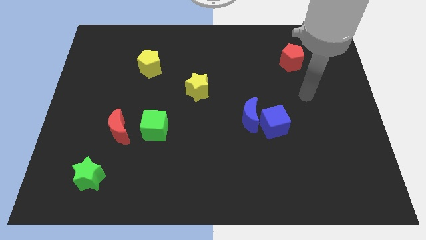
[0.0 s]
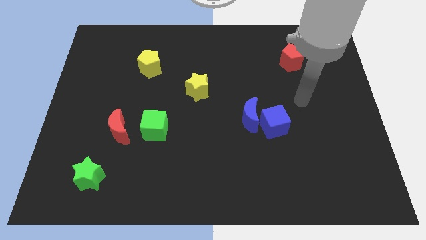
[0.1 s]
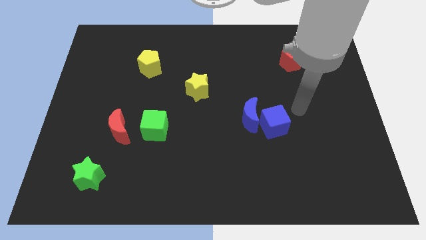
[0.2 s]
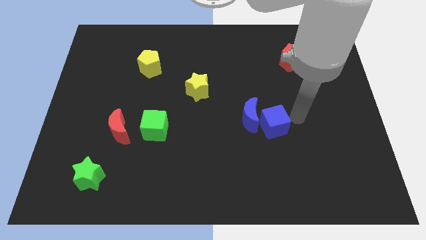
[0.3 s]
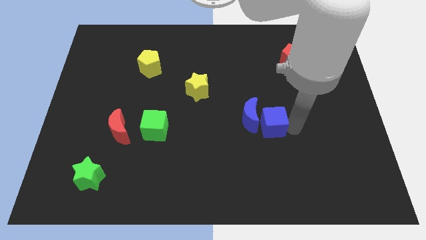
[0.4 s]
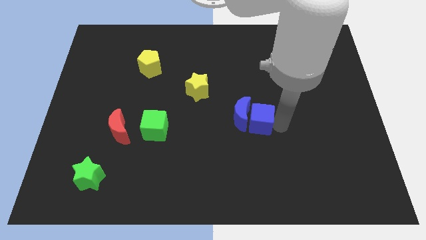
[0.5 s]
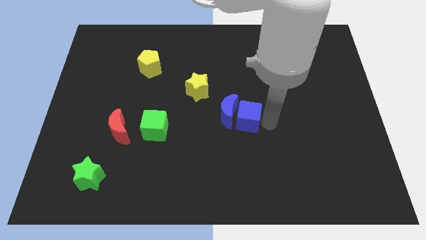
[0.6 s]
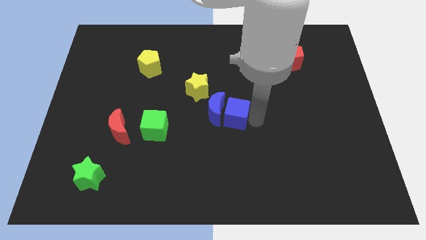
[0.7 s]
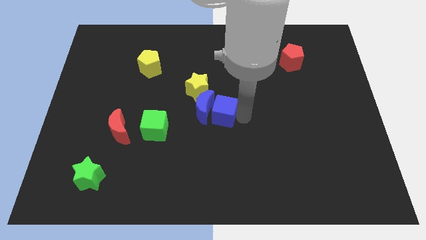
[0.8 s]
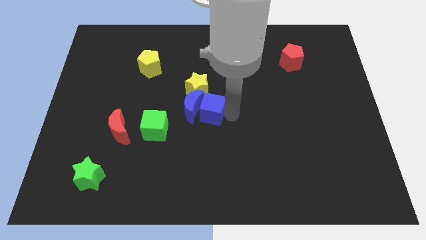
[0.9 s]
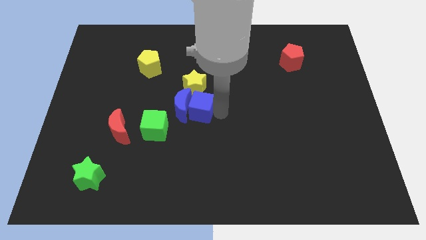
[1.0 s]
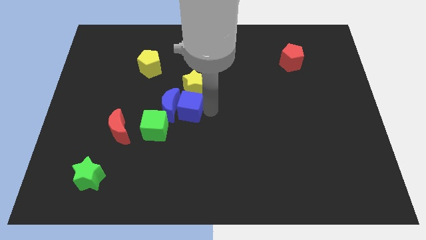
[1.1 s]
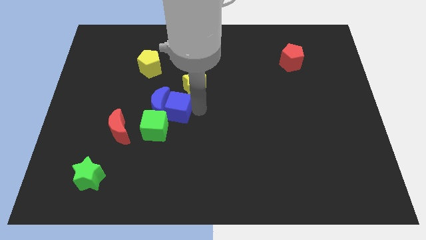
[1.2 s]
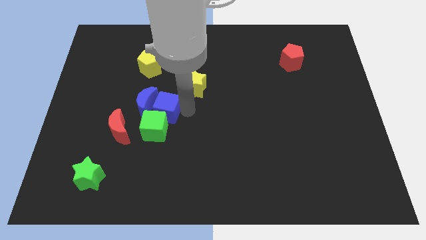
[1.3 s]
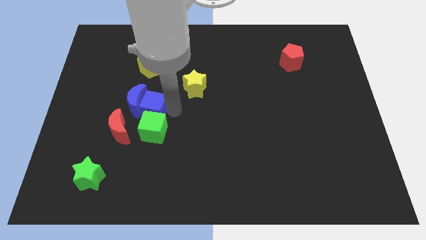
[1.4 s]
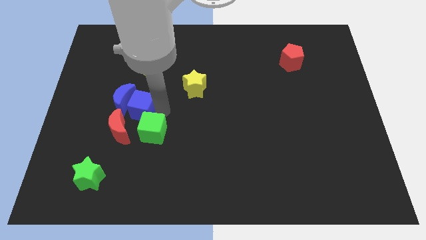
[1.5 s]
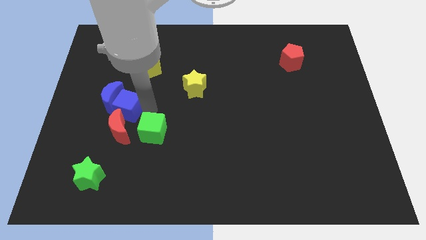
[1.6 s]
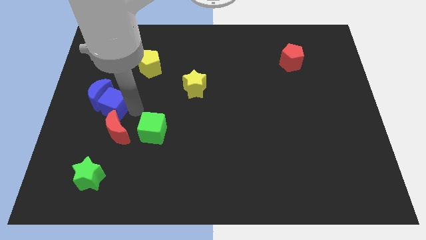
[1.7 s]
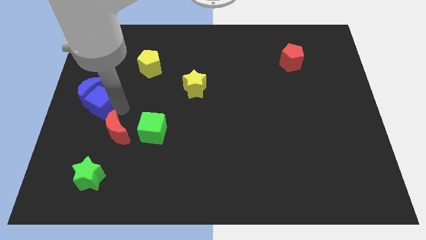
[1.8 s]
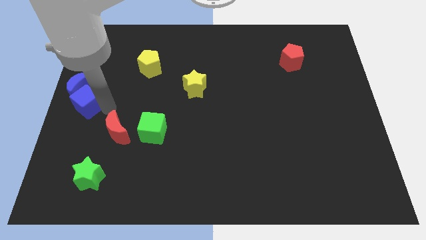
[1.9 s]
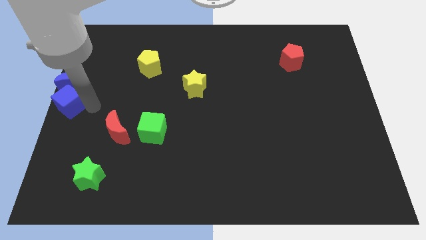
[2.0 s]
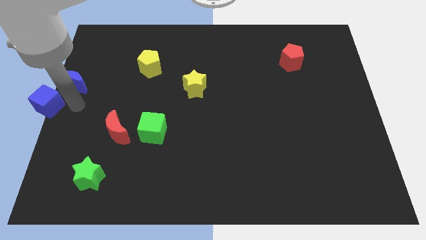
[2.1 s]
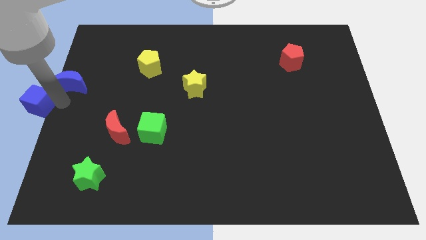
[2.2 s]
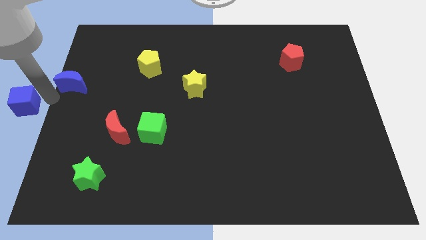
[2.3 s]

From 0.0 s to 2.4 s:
separate the blue moon from the blue cube

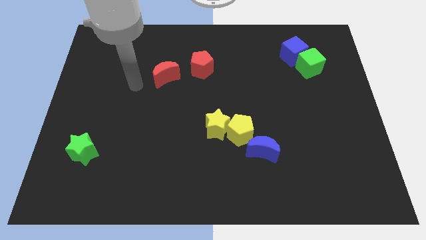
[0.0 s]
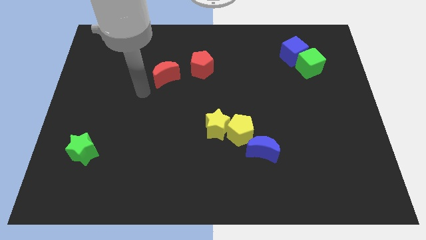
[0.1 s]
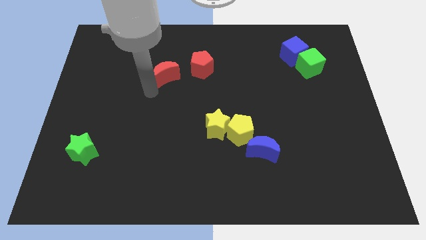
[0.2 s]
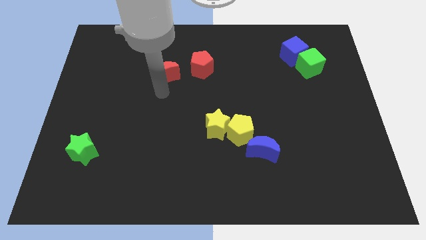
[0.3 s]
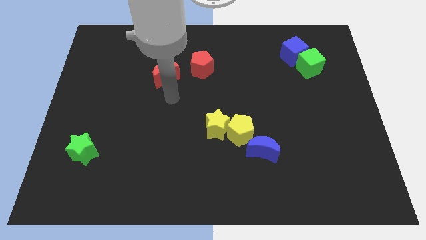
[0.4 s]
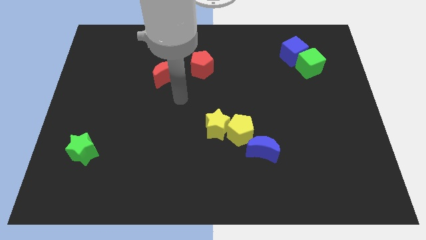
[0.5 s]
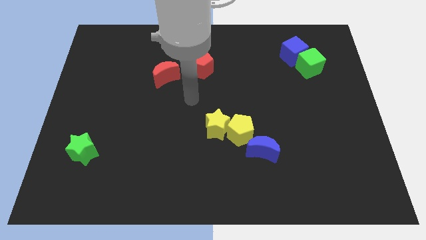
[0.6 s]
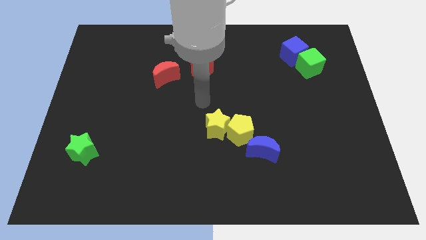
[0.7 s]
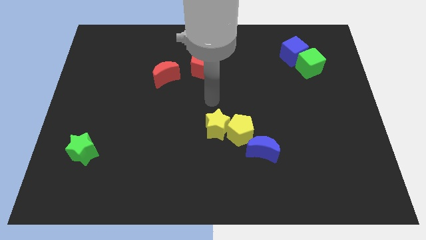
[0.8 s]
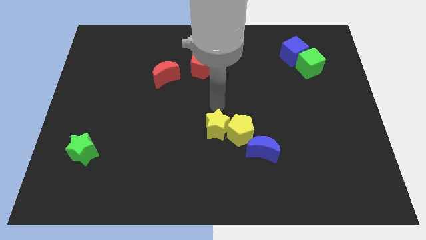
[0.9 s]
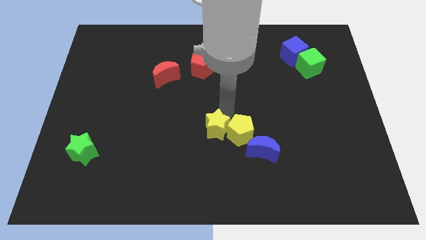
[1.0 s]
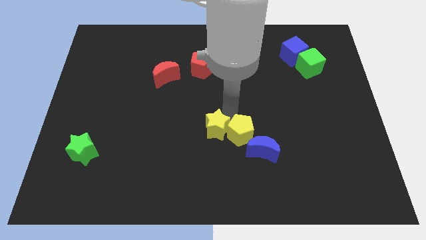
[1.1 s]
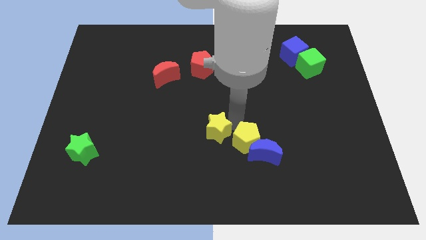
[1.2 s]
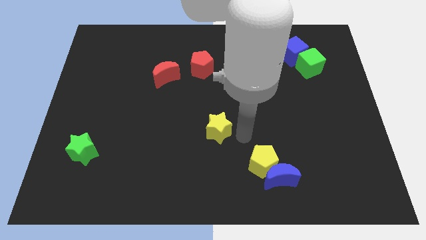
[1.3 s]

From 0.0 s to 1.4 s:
move the yellow star away from the yellow pentagon

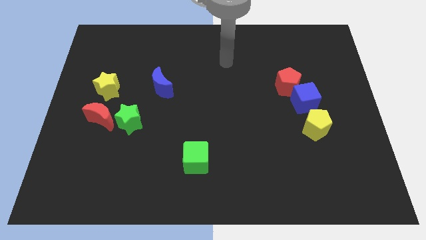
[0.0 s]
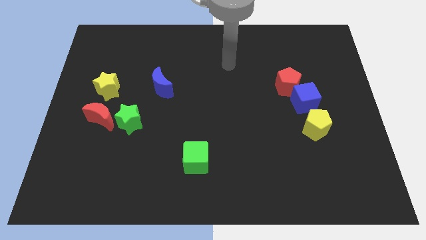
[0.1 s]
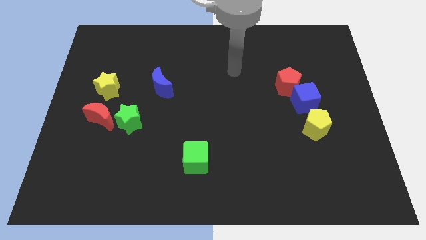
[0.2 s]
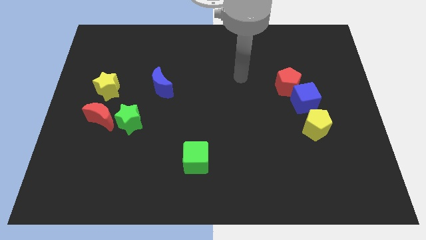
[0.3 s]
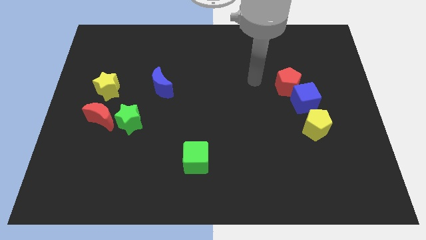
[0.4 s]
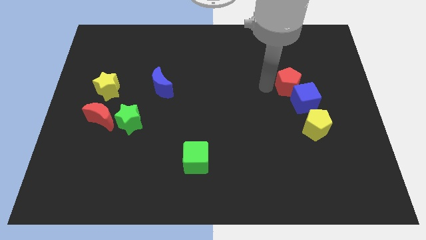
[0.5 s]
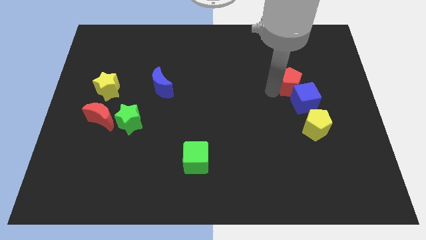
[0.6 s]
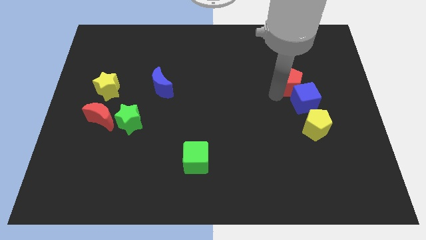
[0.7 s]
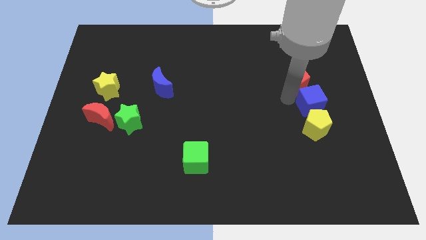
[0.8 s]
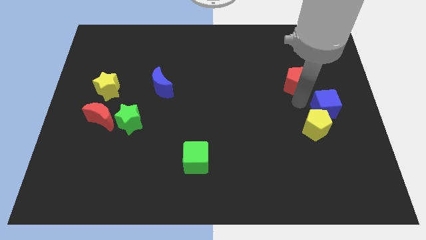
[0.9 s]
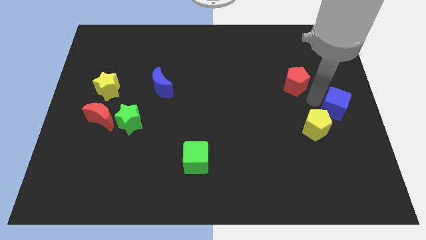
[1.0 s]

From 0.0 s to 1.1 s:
separate the red pentagon from the blue cube

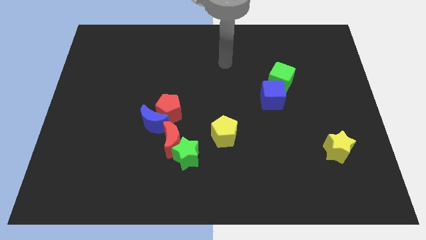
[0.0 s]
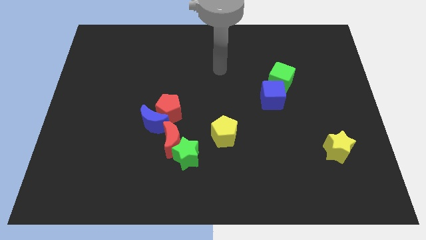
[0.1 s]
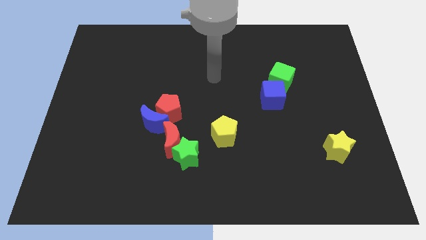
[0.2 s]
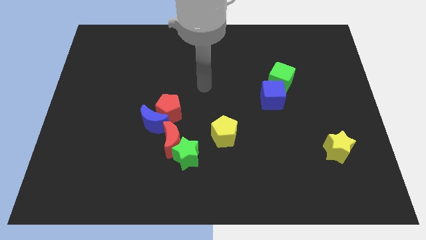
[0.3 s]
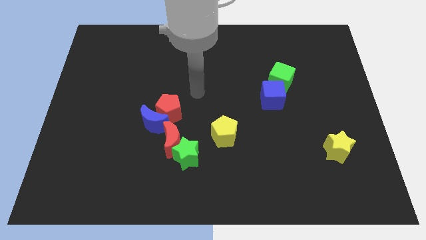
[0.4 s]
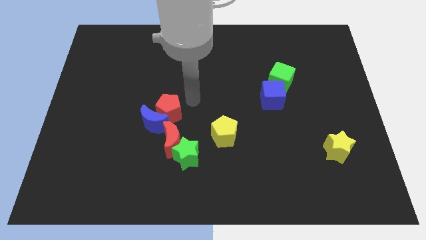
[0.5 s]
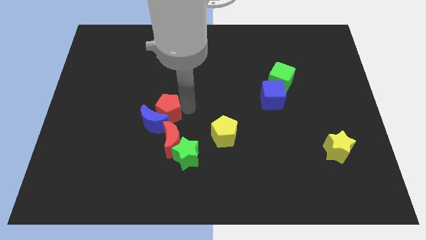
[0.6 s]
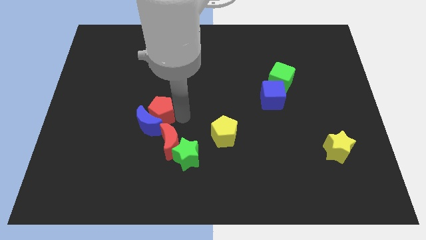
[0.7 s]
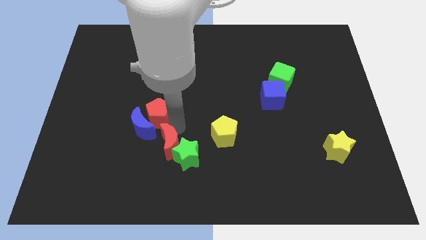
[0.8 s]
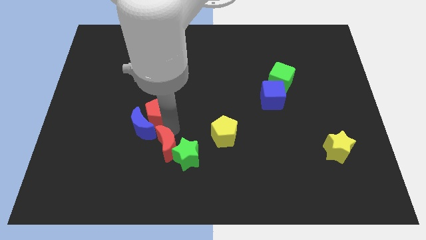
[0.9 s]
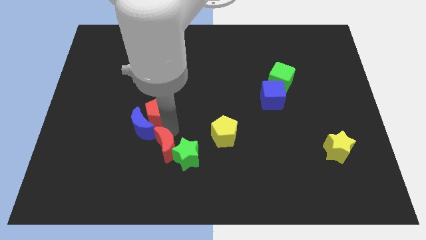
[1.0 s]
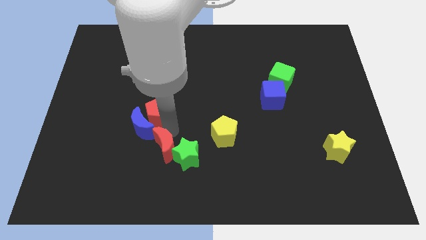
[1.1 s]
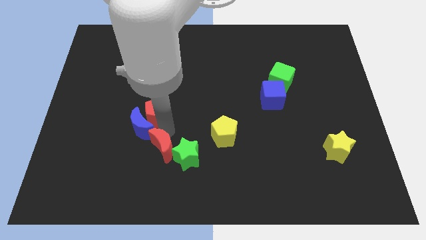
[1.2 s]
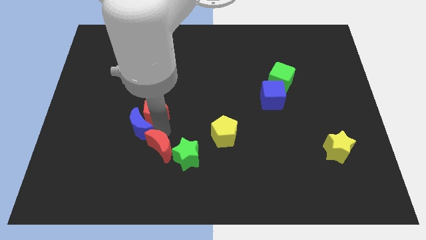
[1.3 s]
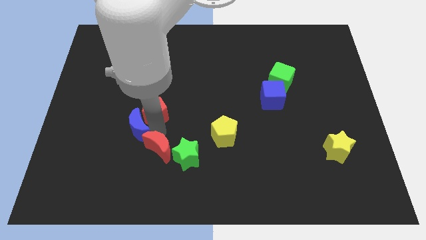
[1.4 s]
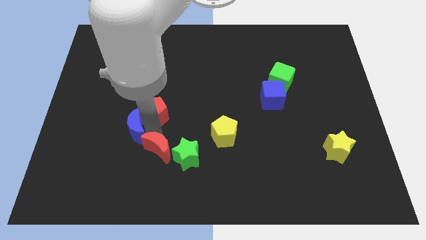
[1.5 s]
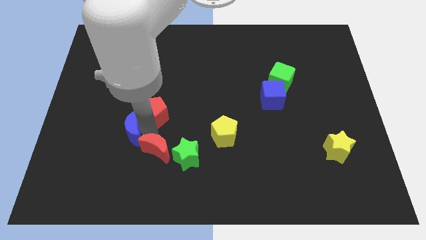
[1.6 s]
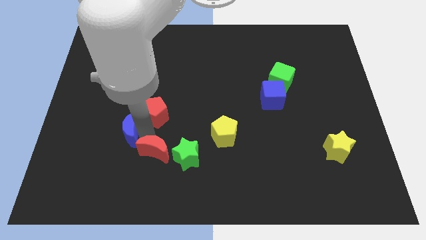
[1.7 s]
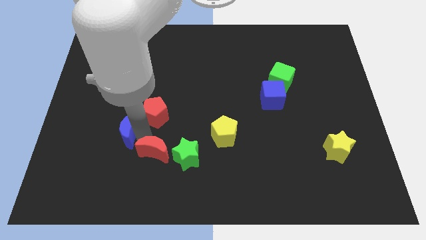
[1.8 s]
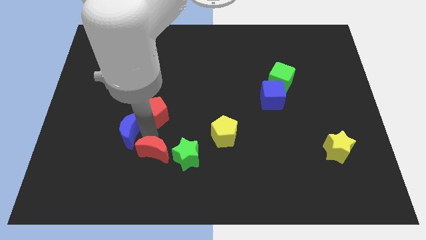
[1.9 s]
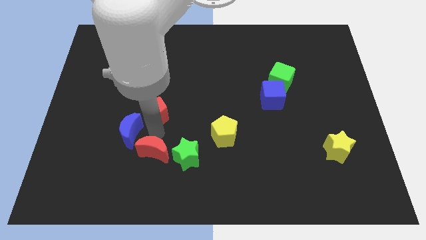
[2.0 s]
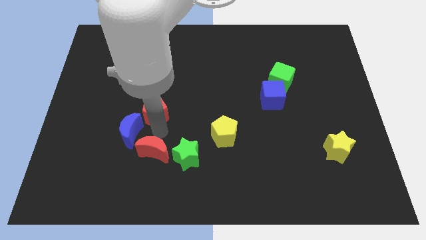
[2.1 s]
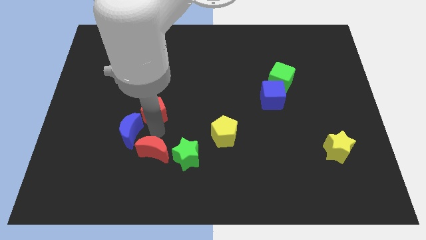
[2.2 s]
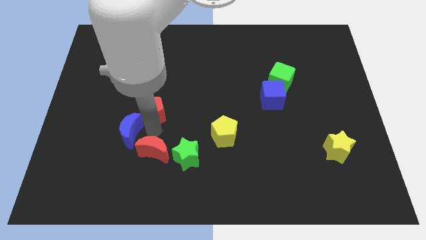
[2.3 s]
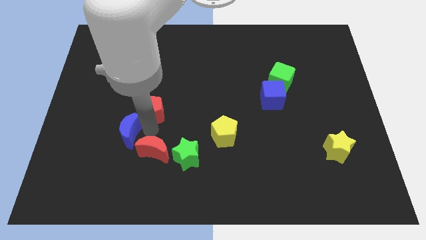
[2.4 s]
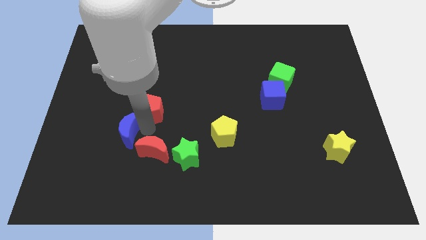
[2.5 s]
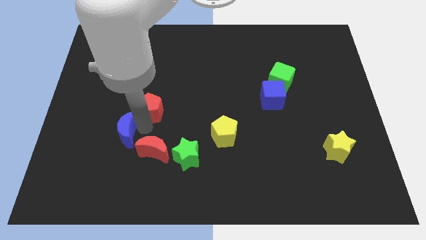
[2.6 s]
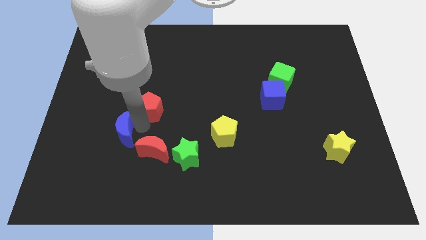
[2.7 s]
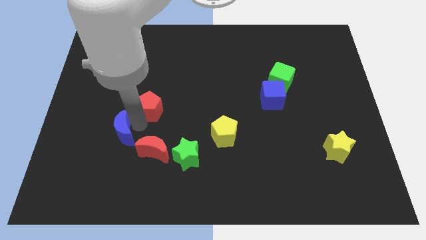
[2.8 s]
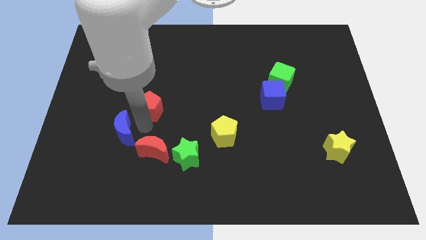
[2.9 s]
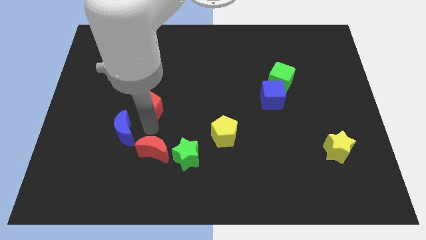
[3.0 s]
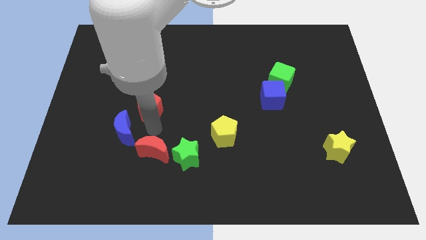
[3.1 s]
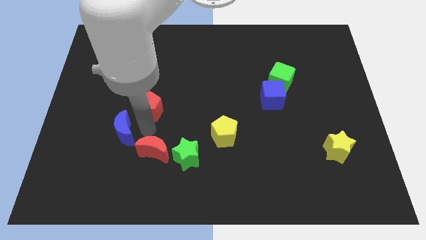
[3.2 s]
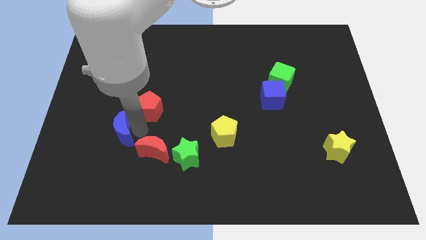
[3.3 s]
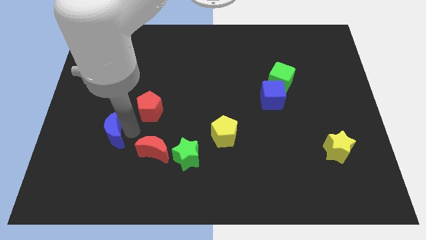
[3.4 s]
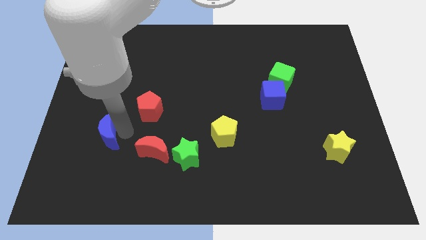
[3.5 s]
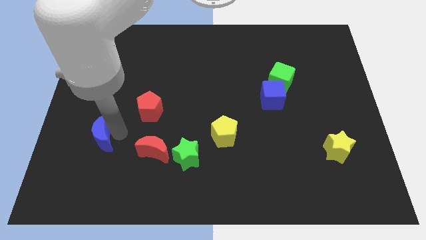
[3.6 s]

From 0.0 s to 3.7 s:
move the blue moon away from the red pentagon and red moon

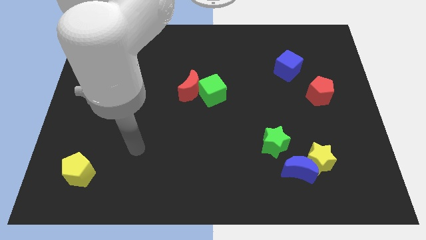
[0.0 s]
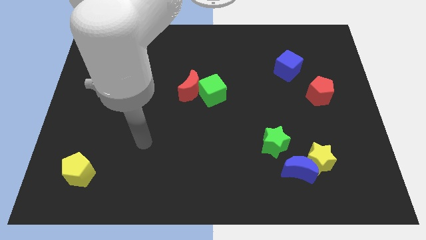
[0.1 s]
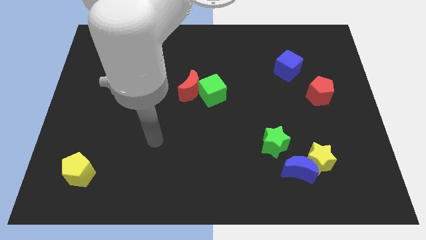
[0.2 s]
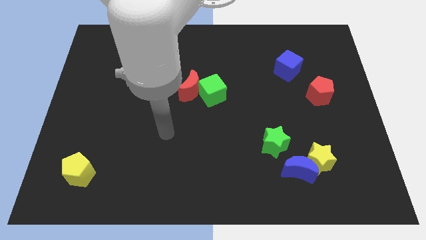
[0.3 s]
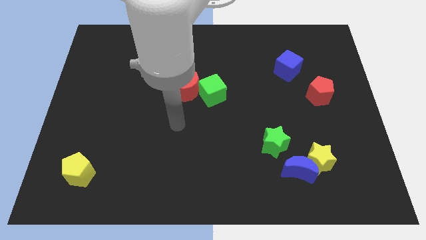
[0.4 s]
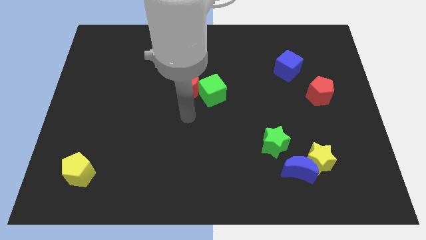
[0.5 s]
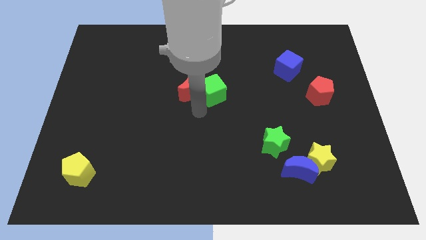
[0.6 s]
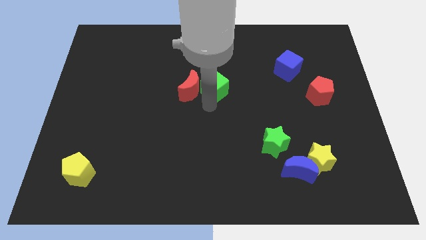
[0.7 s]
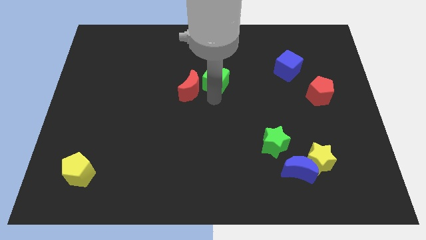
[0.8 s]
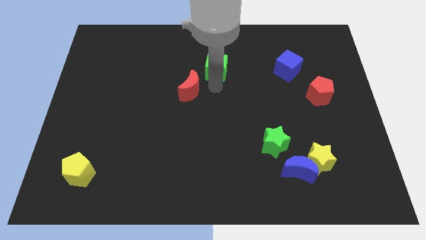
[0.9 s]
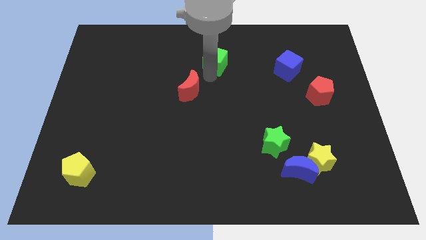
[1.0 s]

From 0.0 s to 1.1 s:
pull the red moon apart from the green cube
